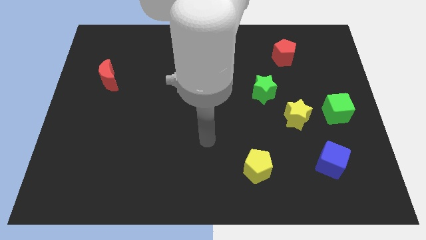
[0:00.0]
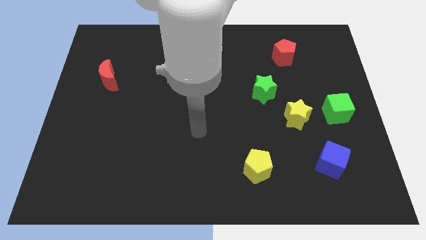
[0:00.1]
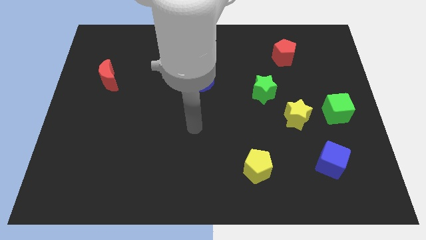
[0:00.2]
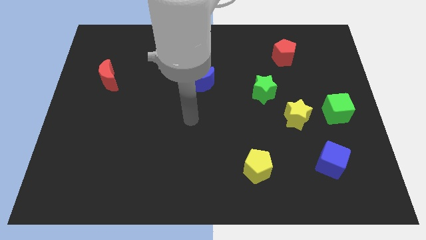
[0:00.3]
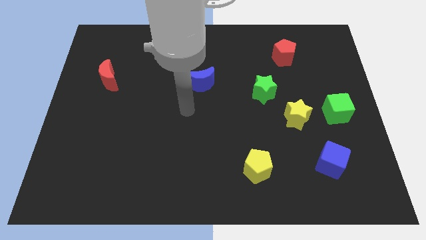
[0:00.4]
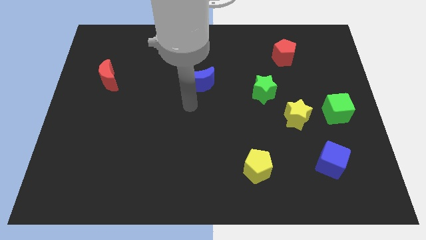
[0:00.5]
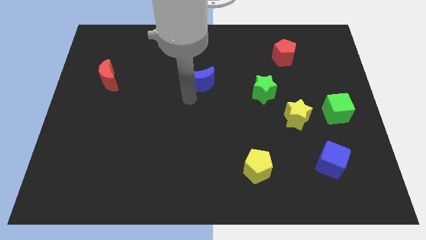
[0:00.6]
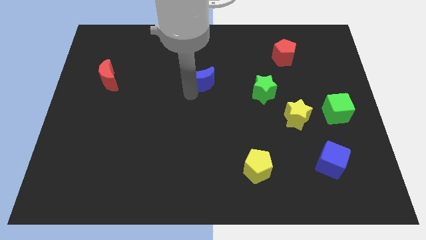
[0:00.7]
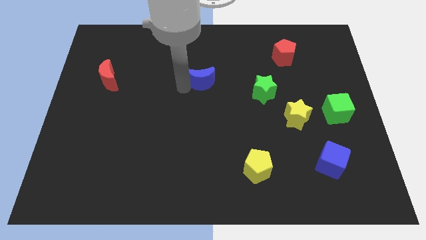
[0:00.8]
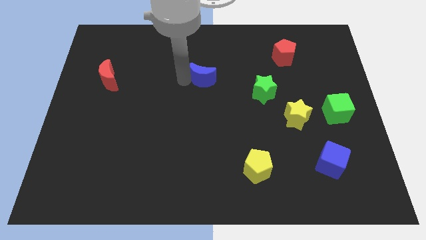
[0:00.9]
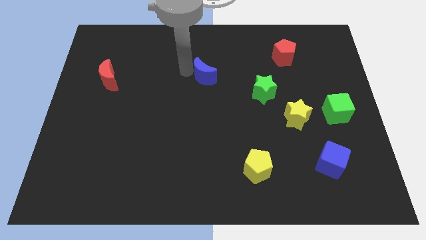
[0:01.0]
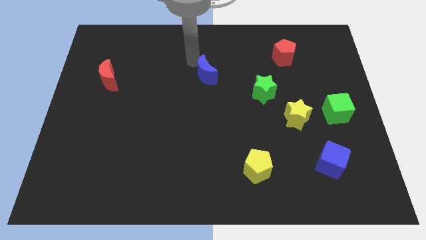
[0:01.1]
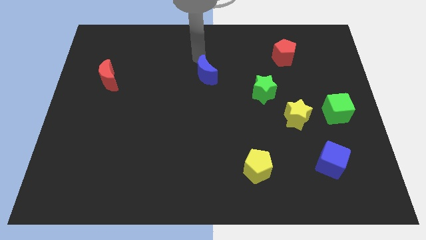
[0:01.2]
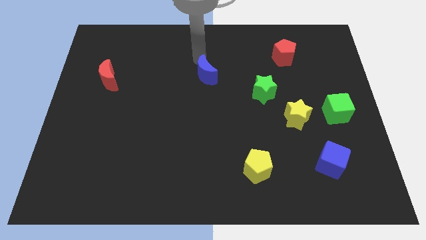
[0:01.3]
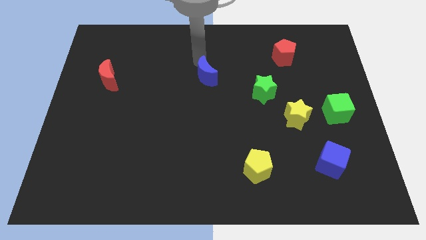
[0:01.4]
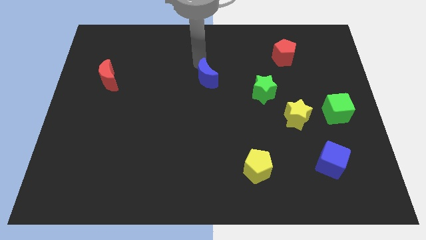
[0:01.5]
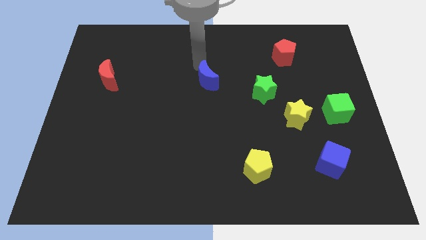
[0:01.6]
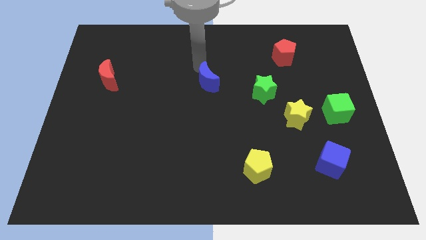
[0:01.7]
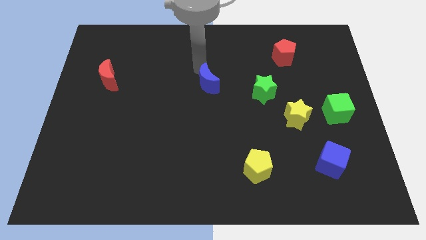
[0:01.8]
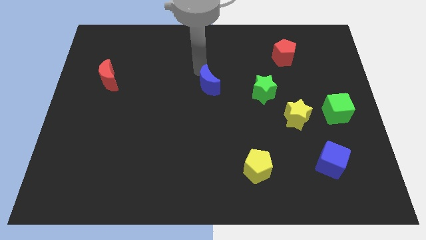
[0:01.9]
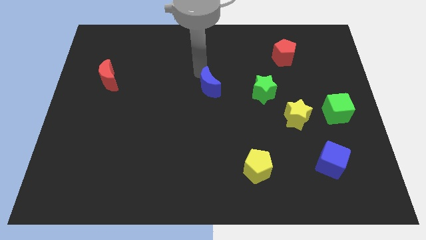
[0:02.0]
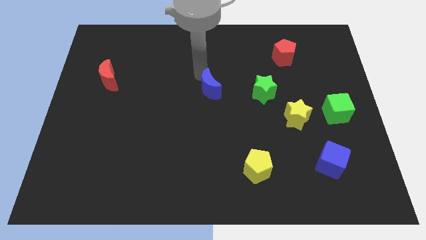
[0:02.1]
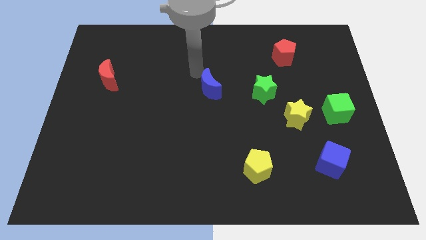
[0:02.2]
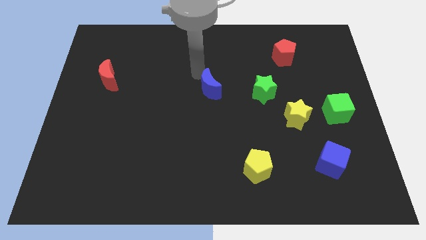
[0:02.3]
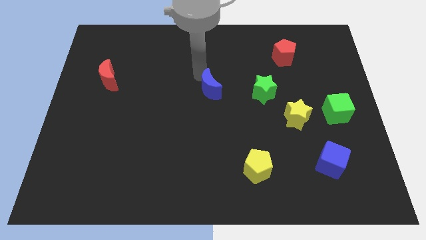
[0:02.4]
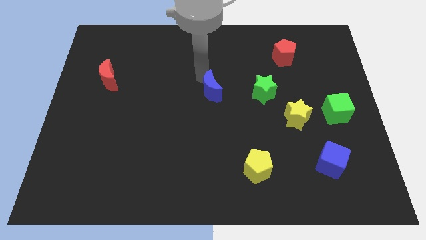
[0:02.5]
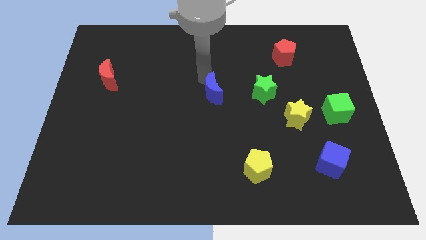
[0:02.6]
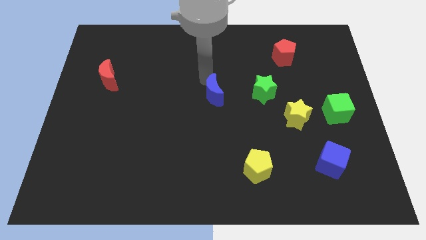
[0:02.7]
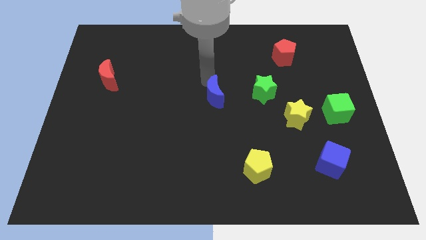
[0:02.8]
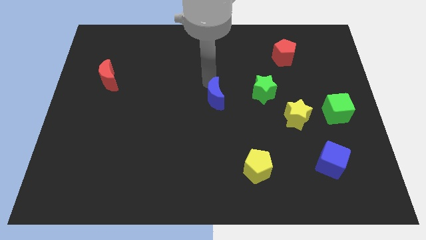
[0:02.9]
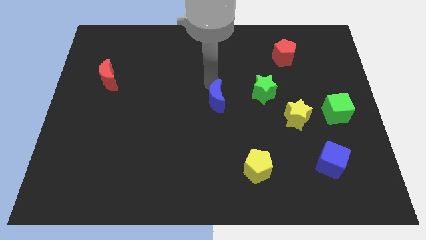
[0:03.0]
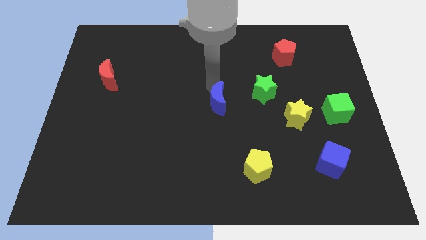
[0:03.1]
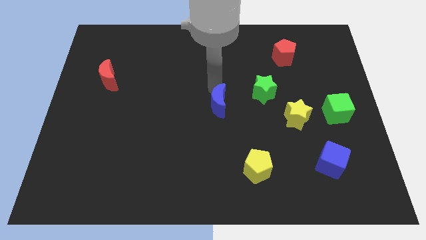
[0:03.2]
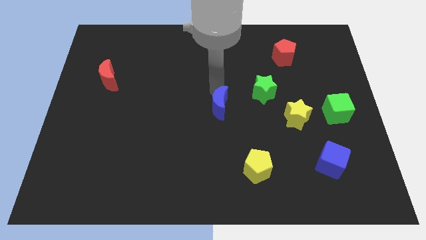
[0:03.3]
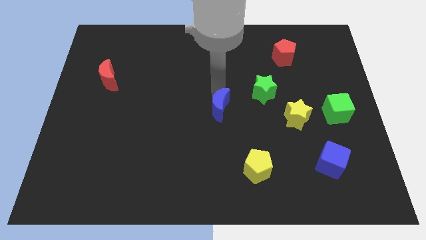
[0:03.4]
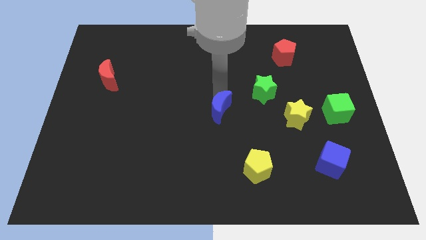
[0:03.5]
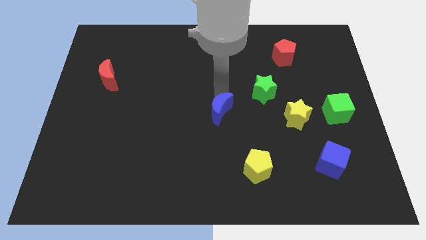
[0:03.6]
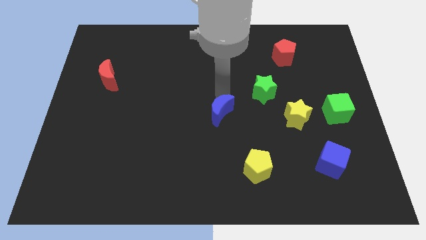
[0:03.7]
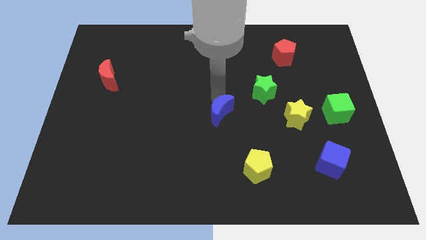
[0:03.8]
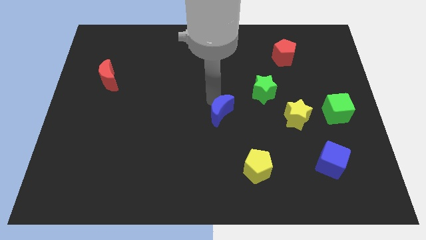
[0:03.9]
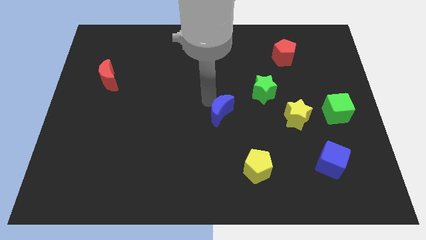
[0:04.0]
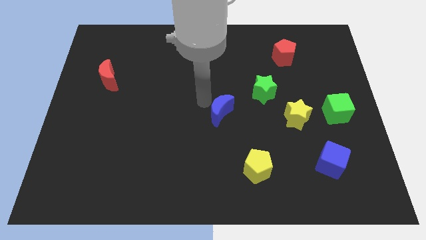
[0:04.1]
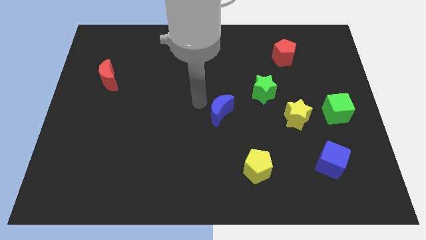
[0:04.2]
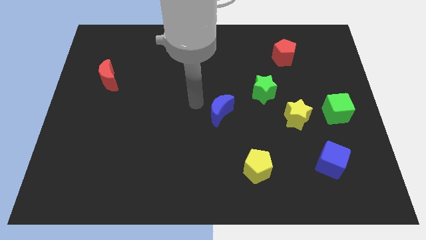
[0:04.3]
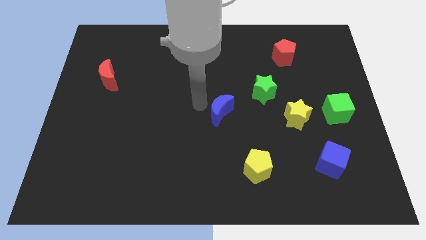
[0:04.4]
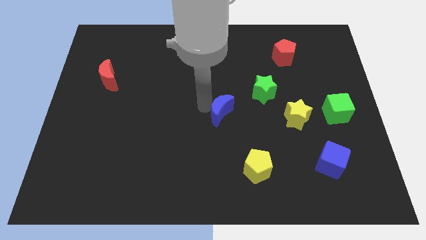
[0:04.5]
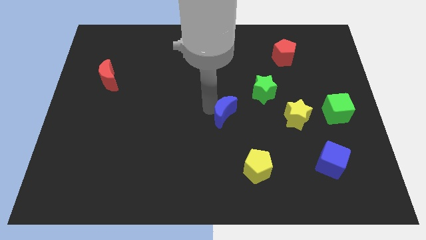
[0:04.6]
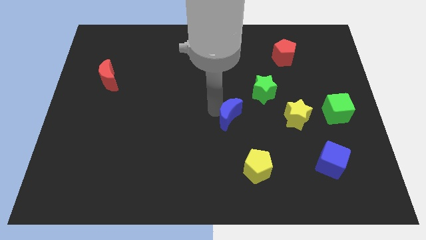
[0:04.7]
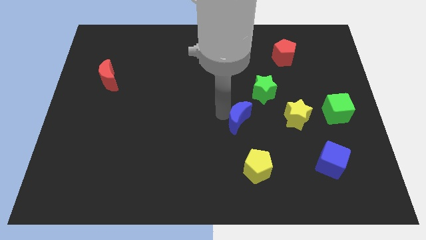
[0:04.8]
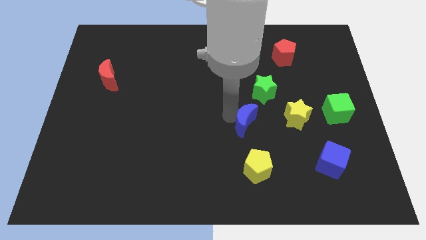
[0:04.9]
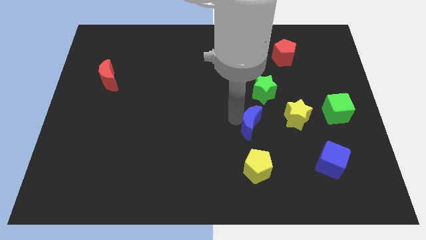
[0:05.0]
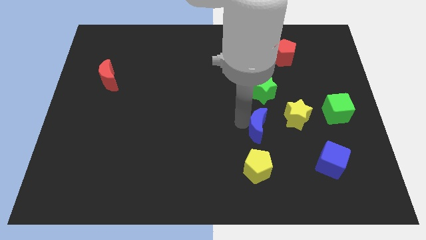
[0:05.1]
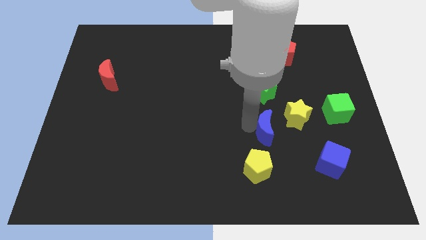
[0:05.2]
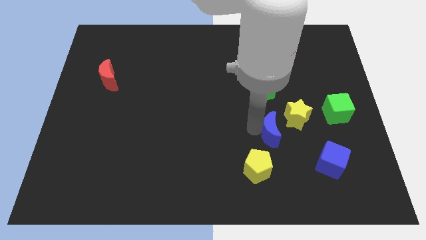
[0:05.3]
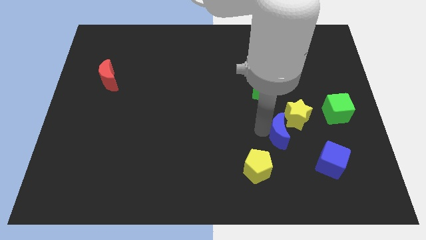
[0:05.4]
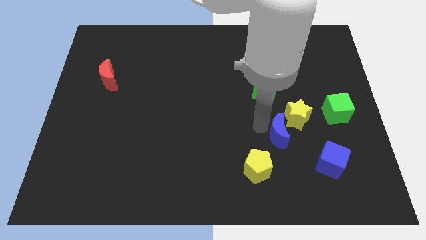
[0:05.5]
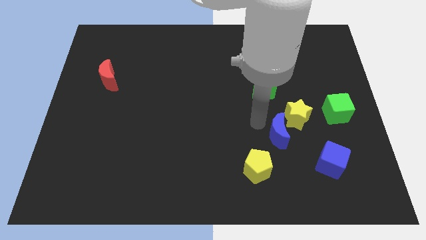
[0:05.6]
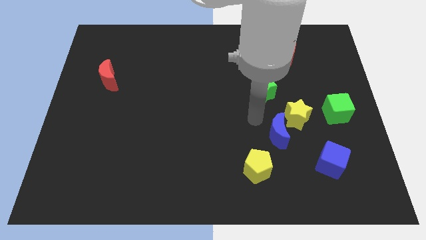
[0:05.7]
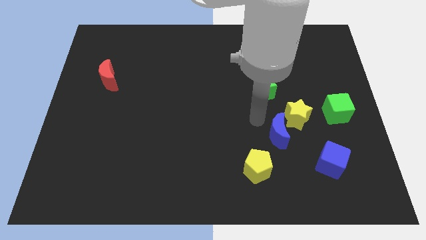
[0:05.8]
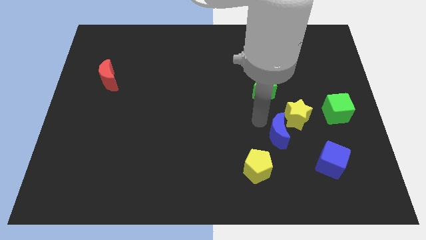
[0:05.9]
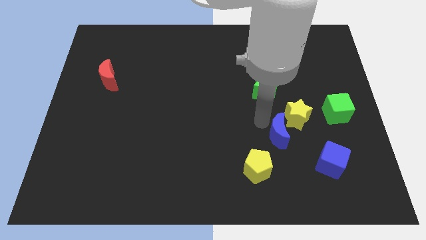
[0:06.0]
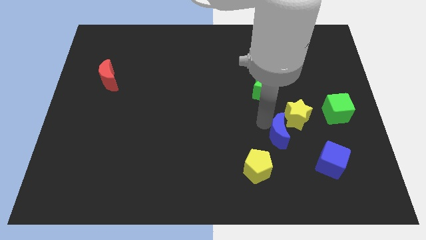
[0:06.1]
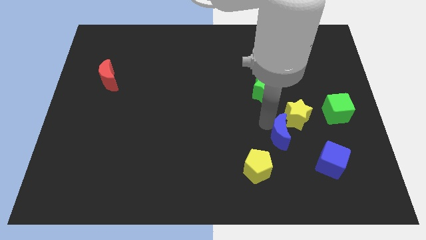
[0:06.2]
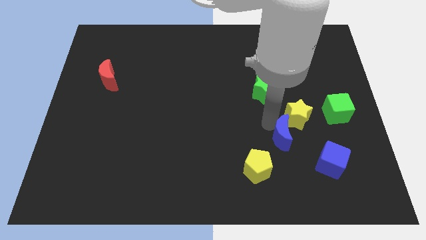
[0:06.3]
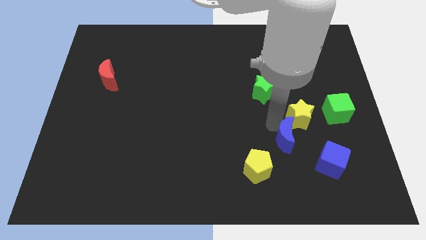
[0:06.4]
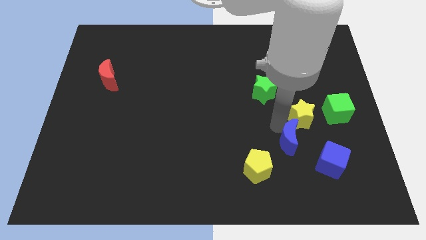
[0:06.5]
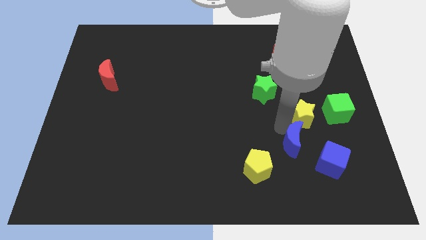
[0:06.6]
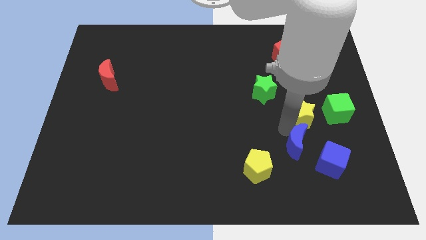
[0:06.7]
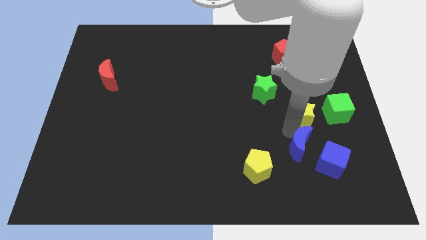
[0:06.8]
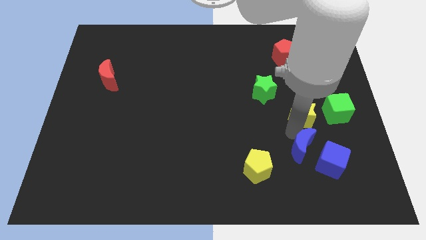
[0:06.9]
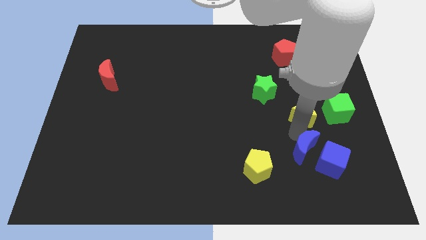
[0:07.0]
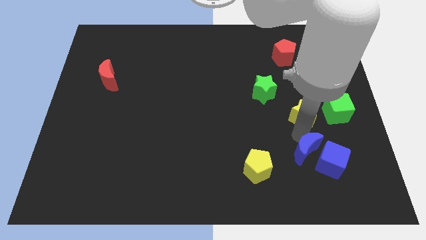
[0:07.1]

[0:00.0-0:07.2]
put the blue moon close to the blue cube

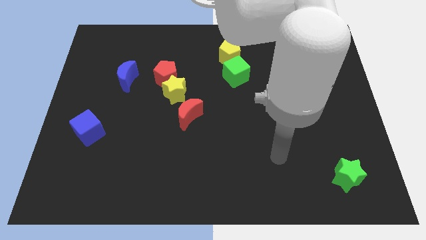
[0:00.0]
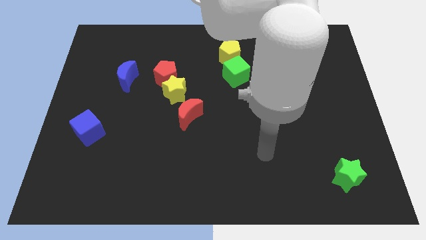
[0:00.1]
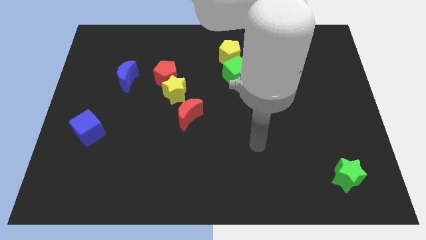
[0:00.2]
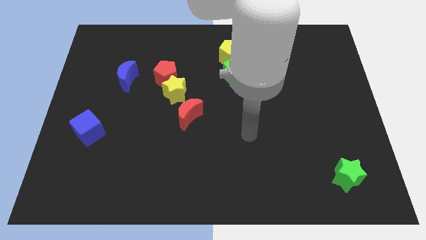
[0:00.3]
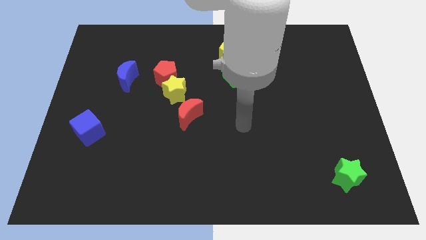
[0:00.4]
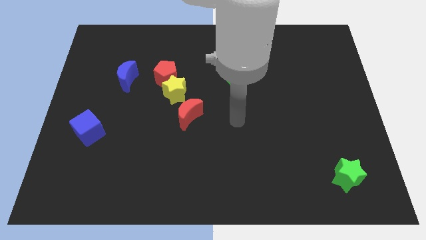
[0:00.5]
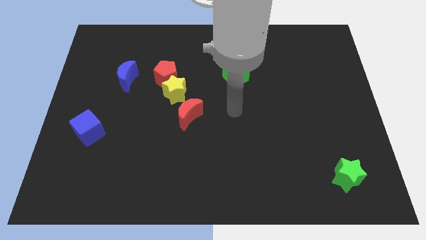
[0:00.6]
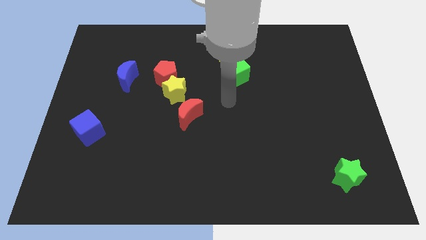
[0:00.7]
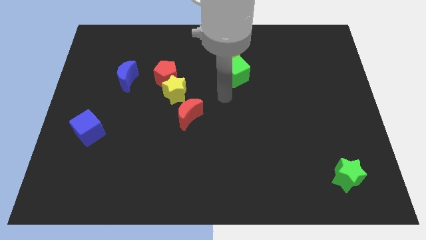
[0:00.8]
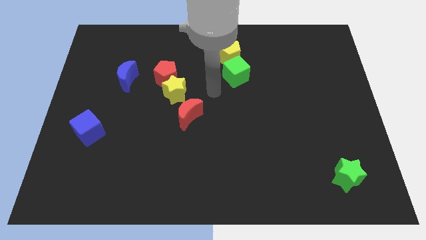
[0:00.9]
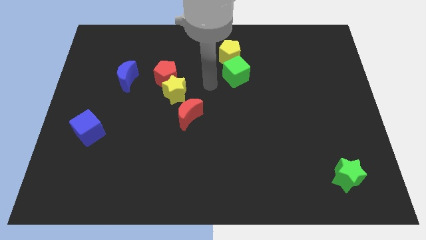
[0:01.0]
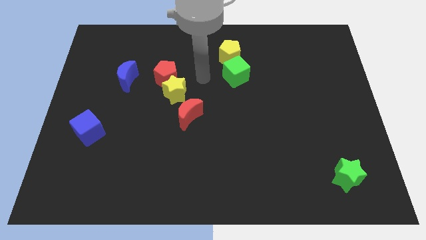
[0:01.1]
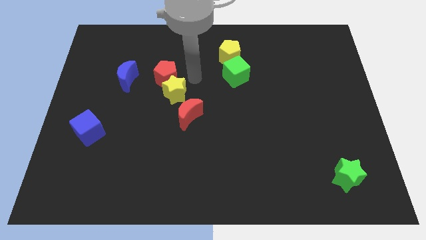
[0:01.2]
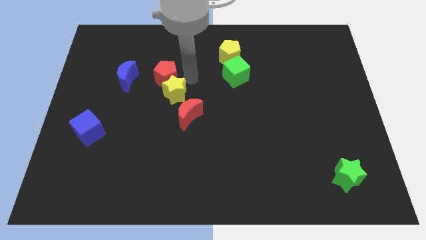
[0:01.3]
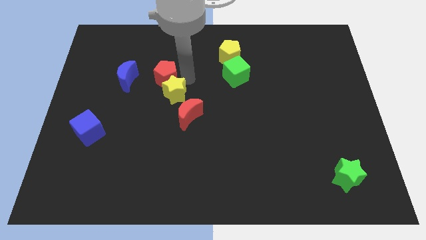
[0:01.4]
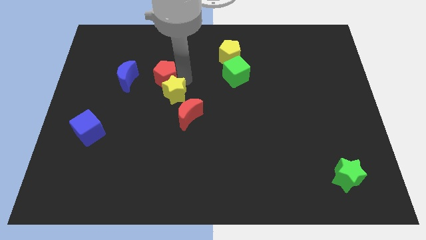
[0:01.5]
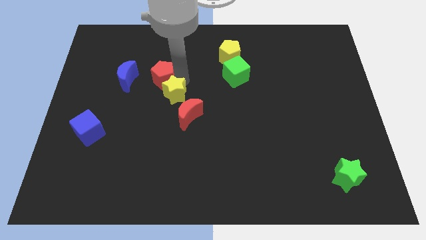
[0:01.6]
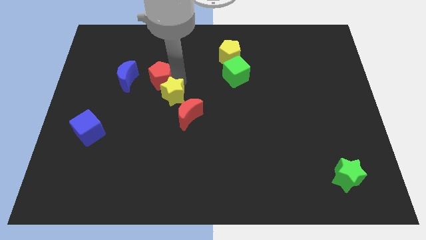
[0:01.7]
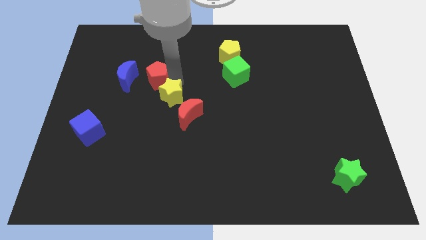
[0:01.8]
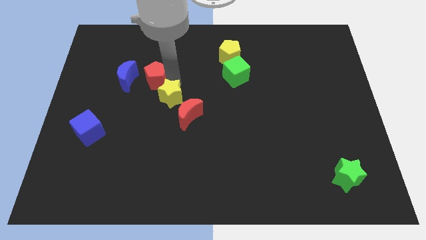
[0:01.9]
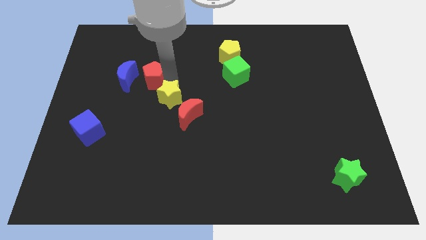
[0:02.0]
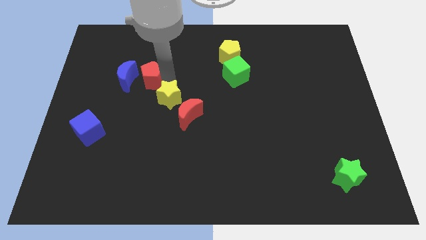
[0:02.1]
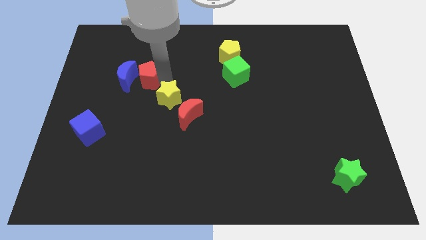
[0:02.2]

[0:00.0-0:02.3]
put the red pentagon close to the blue moon
